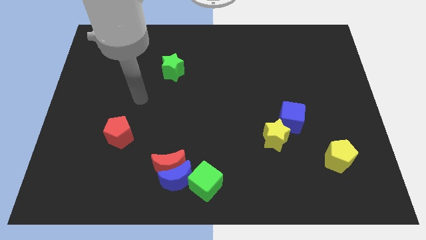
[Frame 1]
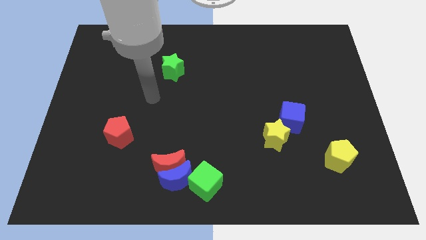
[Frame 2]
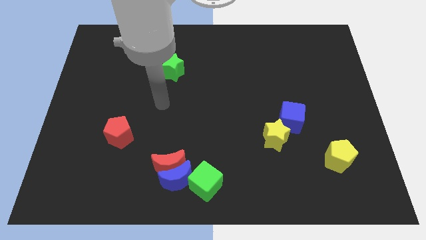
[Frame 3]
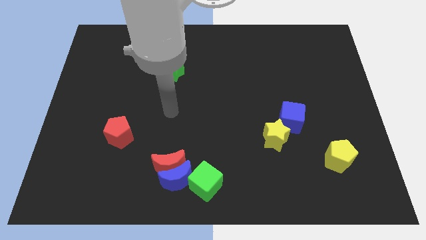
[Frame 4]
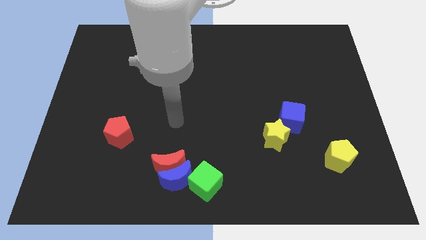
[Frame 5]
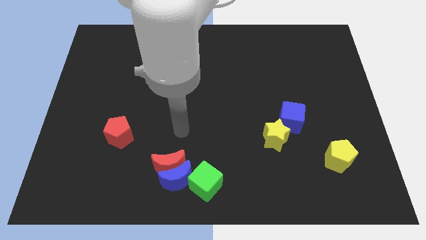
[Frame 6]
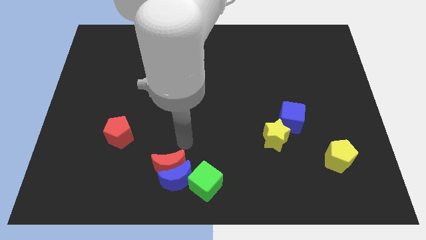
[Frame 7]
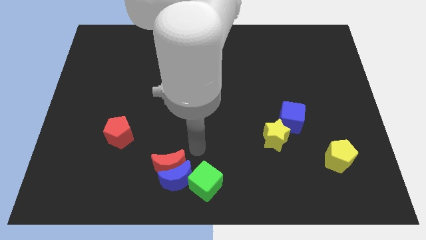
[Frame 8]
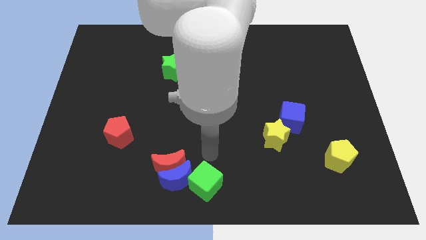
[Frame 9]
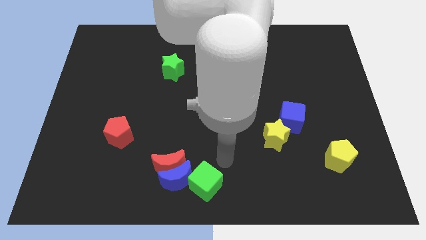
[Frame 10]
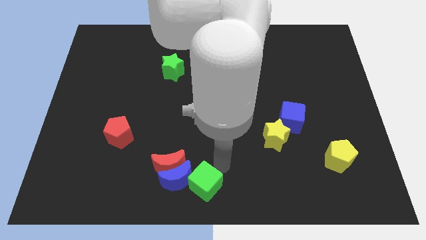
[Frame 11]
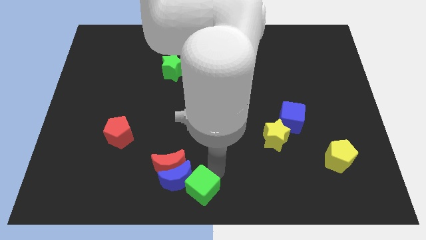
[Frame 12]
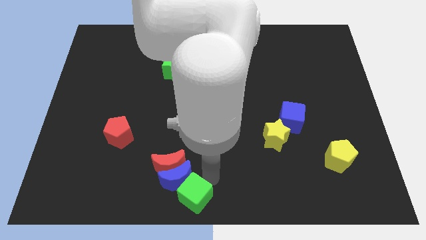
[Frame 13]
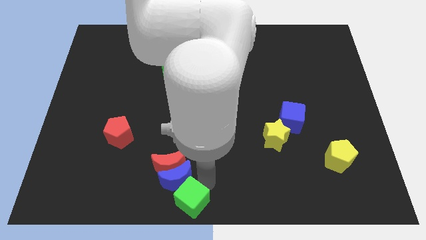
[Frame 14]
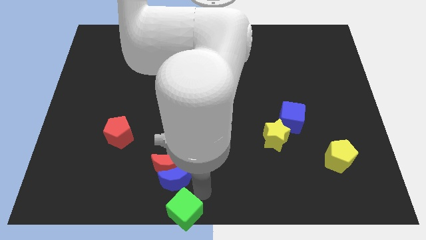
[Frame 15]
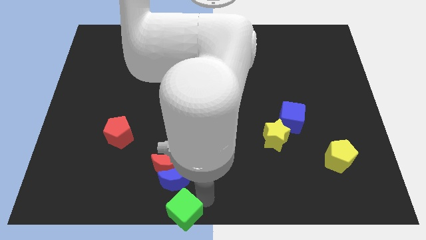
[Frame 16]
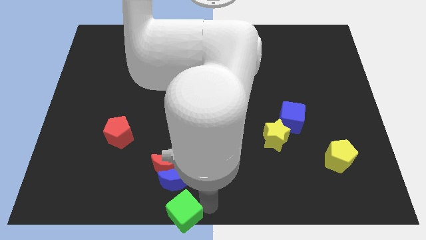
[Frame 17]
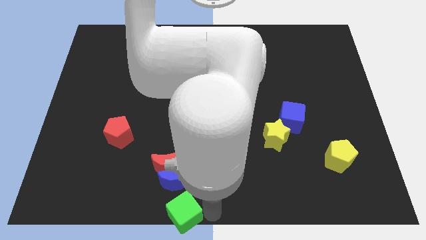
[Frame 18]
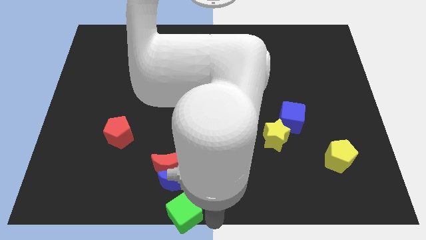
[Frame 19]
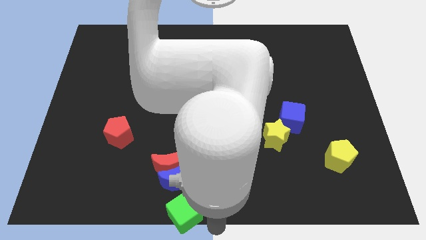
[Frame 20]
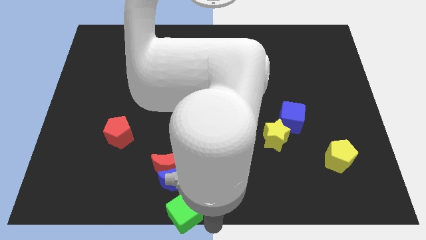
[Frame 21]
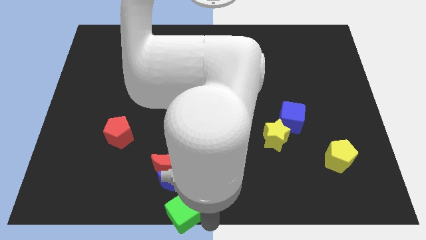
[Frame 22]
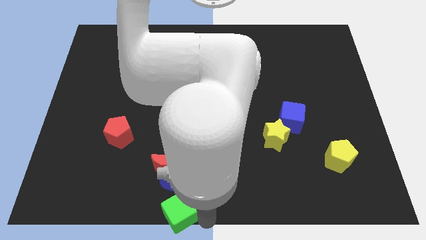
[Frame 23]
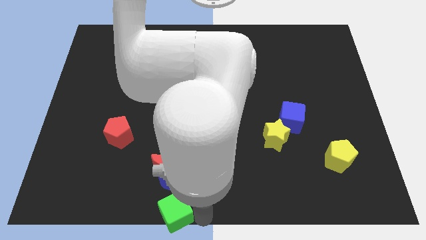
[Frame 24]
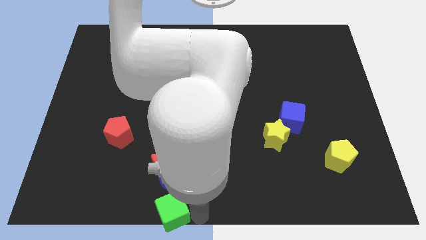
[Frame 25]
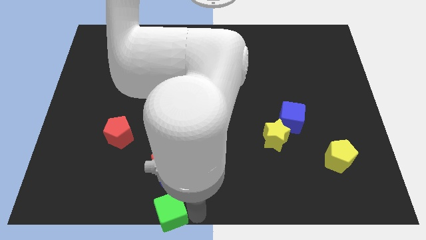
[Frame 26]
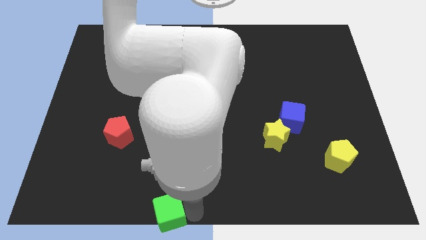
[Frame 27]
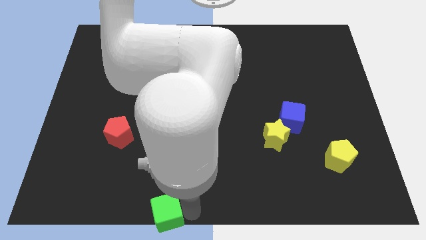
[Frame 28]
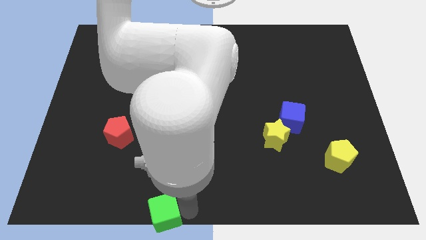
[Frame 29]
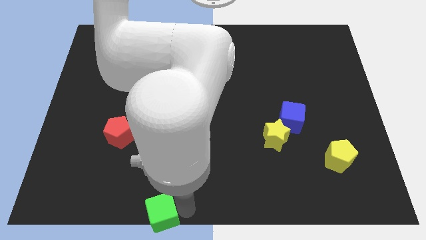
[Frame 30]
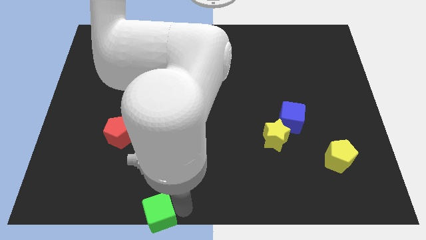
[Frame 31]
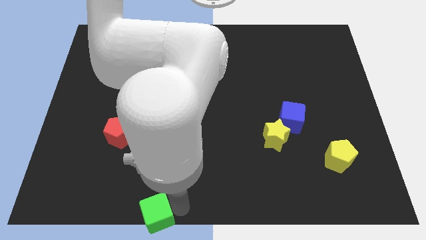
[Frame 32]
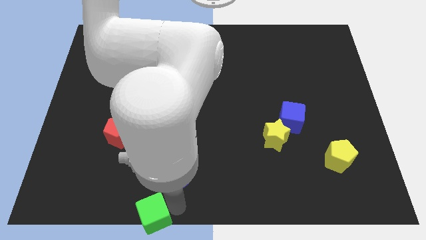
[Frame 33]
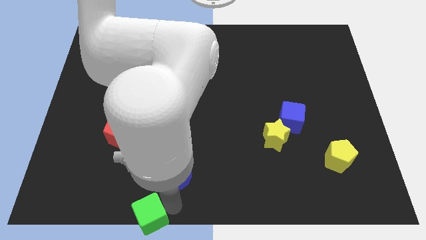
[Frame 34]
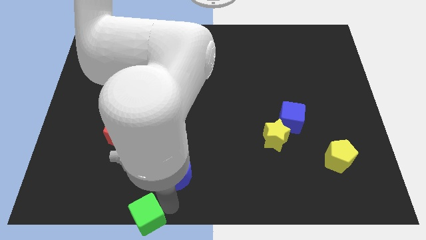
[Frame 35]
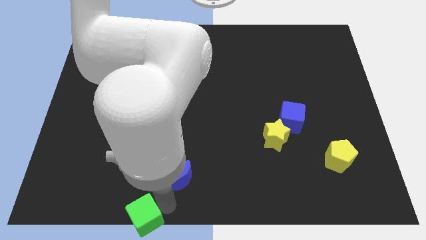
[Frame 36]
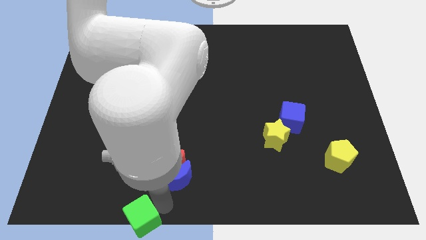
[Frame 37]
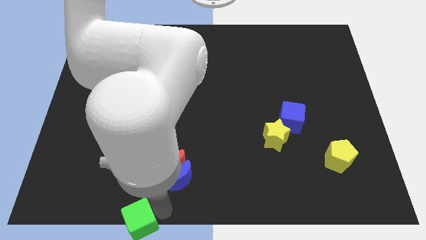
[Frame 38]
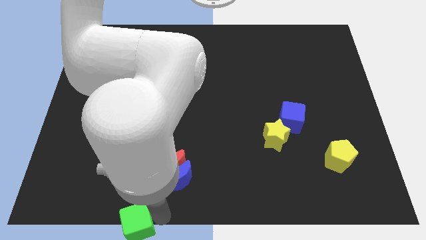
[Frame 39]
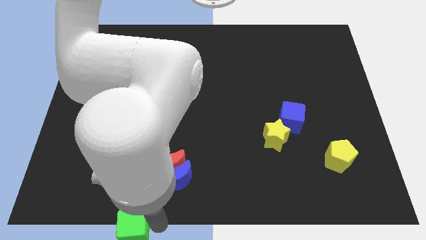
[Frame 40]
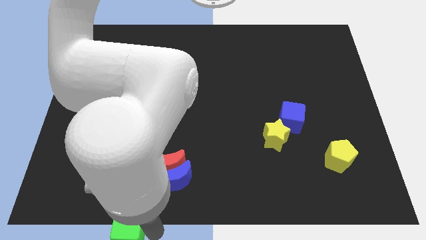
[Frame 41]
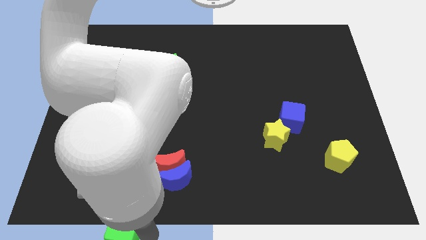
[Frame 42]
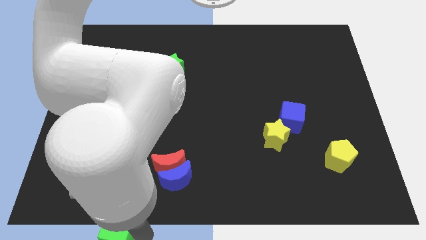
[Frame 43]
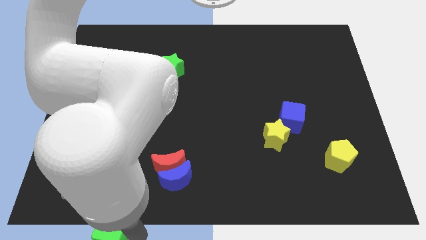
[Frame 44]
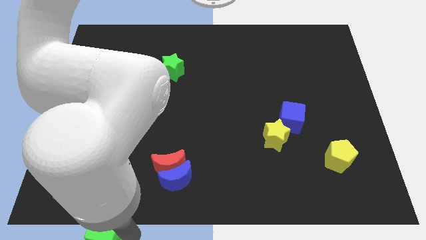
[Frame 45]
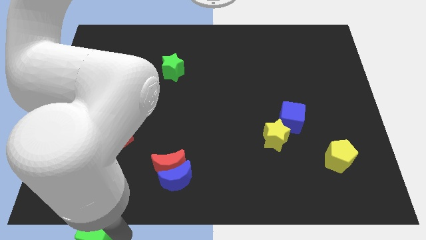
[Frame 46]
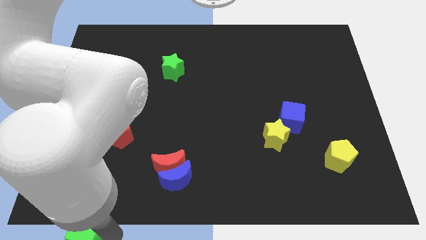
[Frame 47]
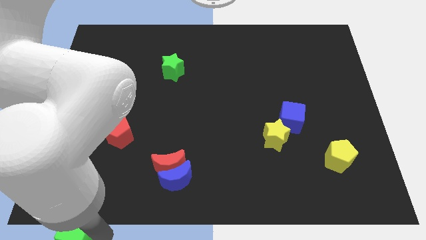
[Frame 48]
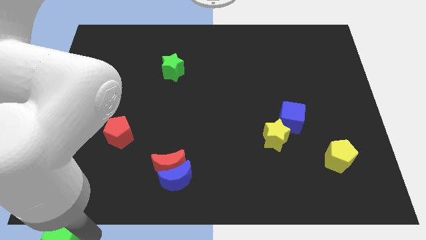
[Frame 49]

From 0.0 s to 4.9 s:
put the green cube to the lower left corner

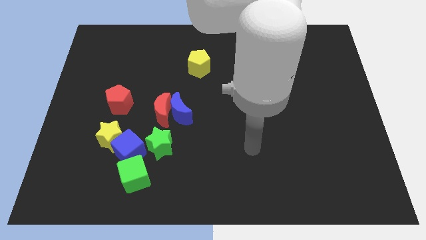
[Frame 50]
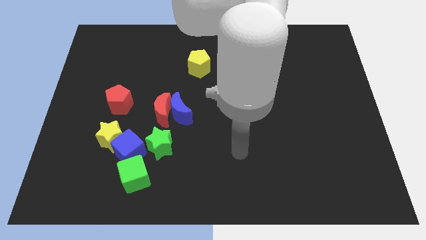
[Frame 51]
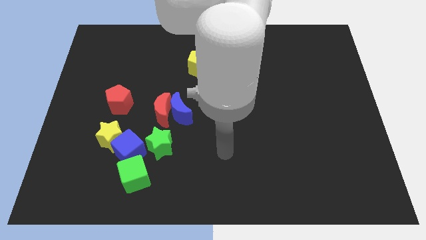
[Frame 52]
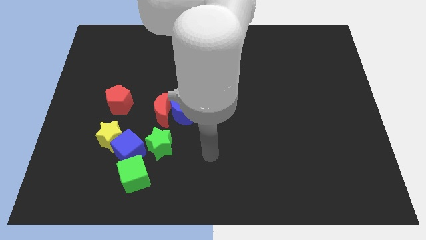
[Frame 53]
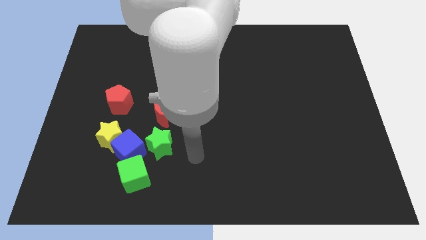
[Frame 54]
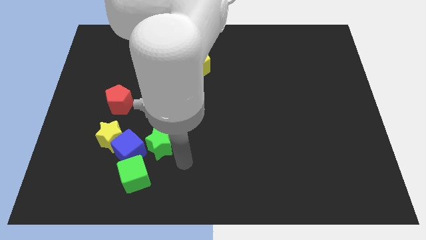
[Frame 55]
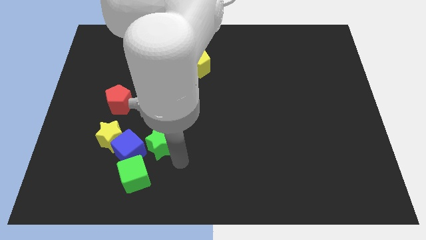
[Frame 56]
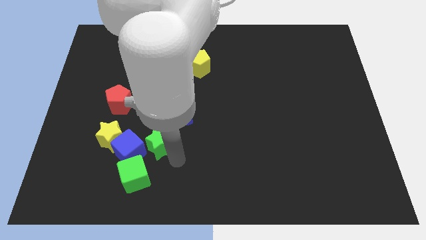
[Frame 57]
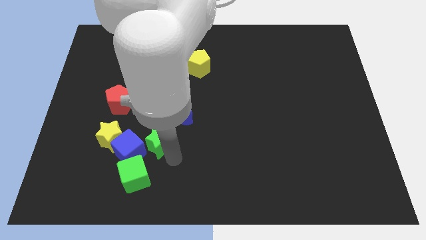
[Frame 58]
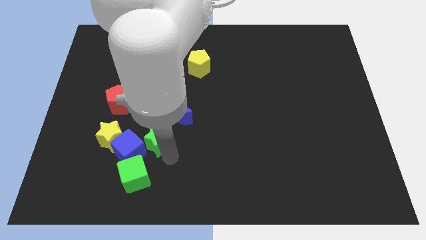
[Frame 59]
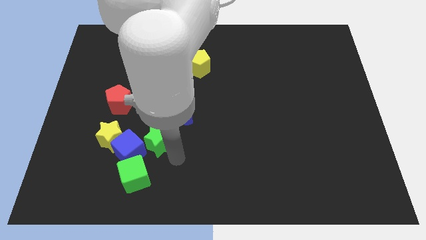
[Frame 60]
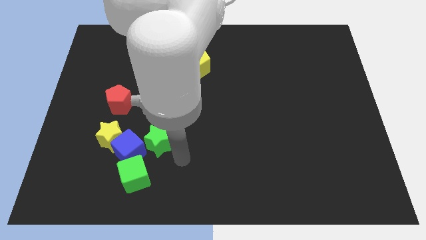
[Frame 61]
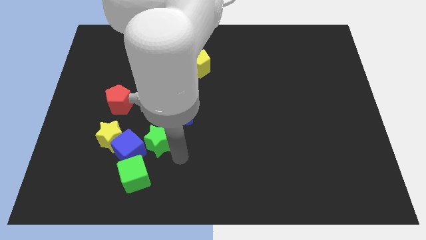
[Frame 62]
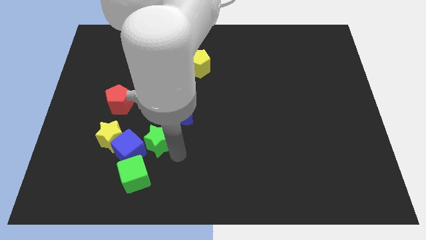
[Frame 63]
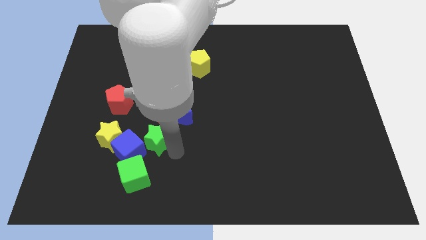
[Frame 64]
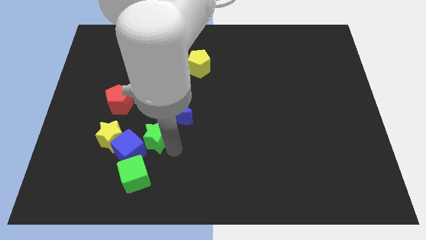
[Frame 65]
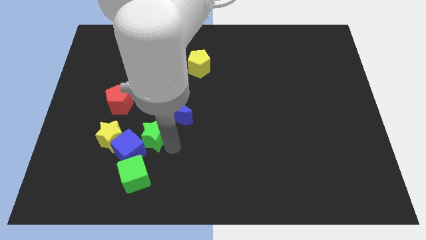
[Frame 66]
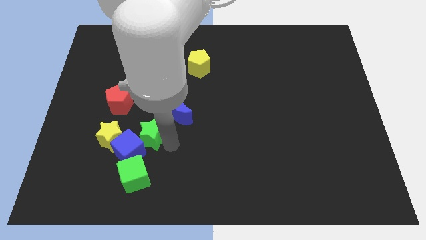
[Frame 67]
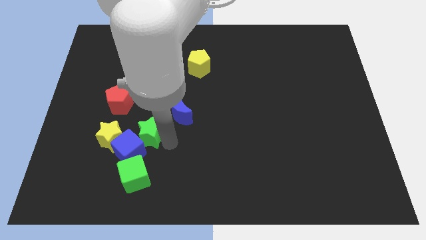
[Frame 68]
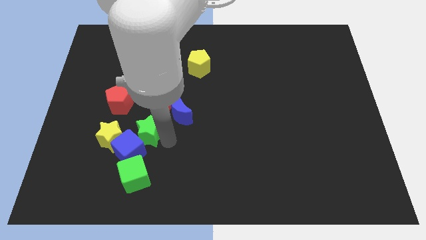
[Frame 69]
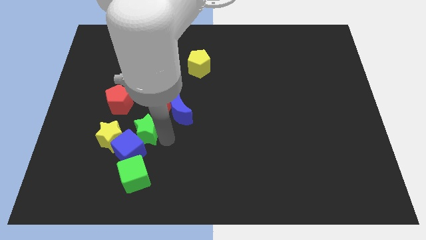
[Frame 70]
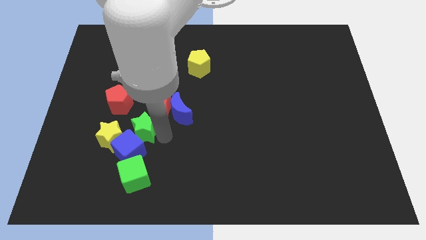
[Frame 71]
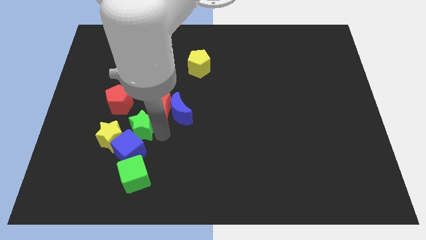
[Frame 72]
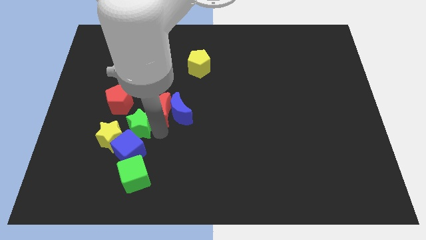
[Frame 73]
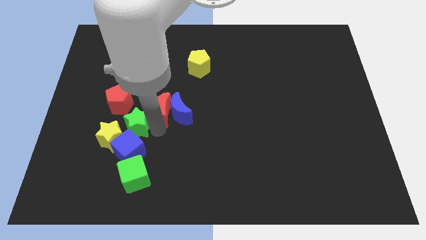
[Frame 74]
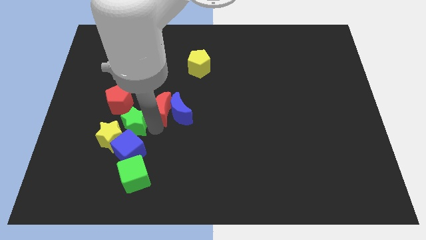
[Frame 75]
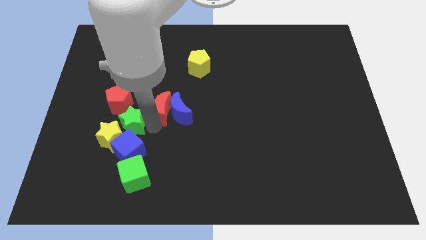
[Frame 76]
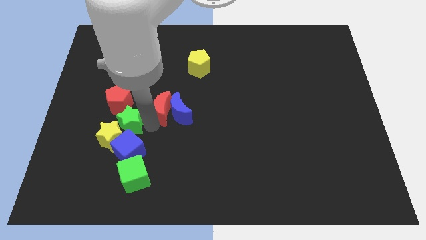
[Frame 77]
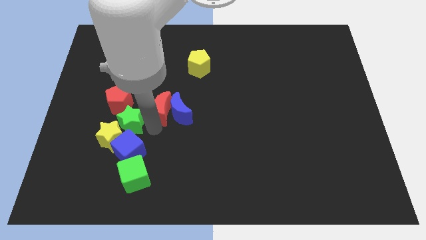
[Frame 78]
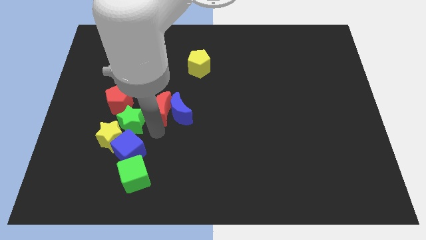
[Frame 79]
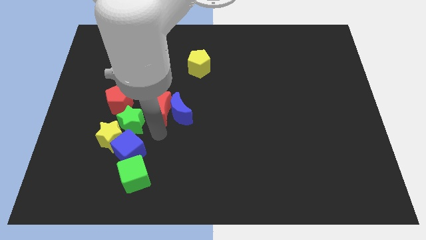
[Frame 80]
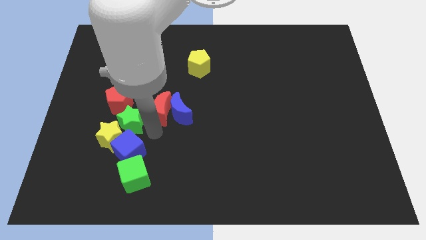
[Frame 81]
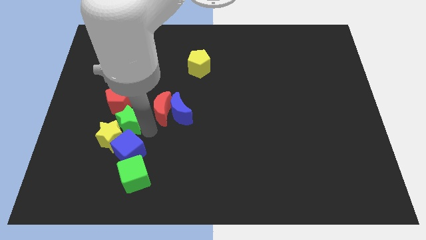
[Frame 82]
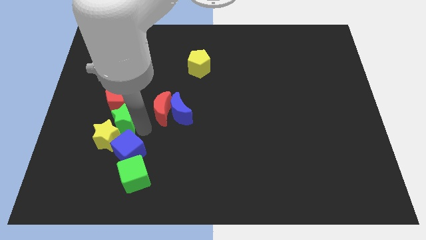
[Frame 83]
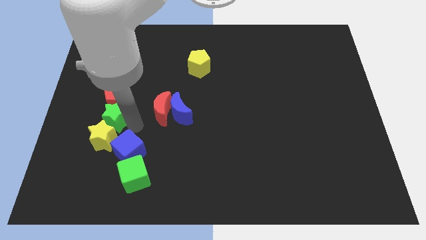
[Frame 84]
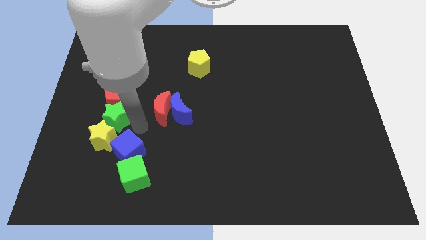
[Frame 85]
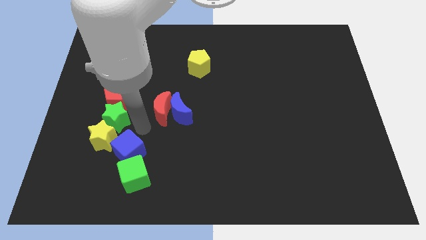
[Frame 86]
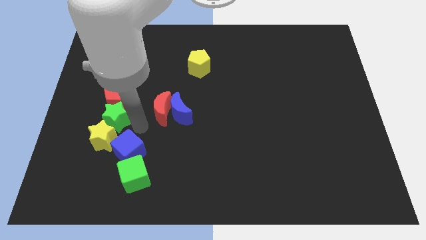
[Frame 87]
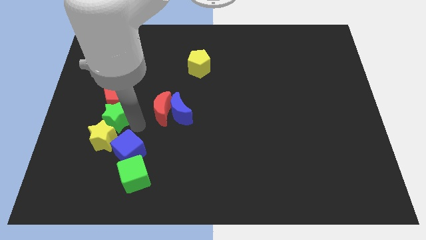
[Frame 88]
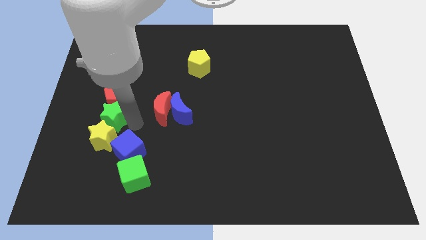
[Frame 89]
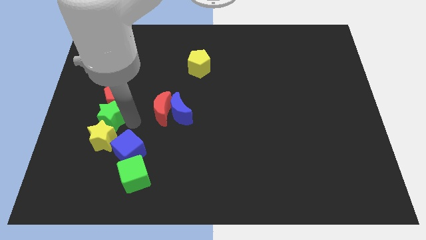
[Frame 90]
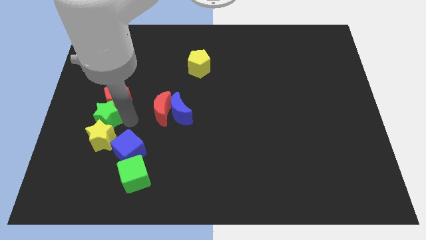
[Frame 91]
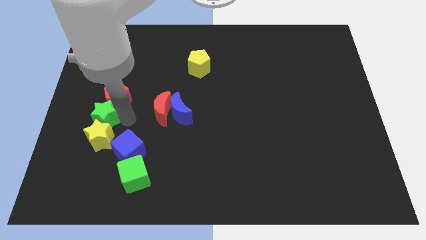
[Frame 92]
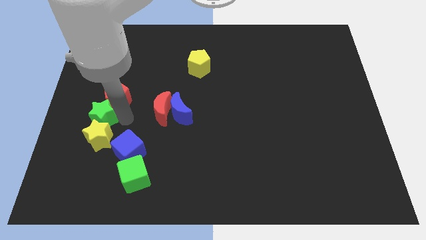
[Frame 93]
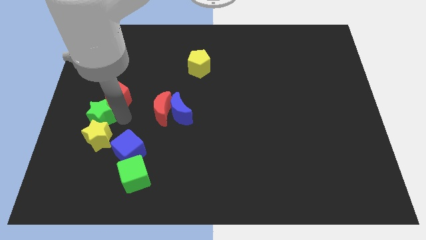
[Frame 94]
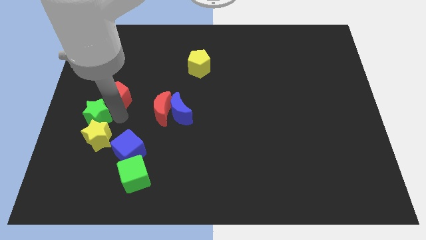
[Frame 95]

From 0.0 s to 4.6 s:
push the green star to the center left
